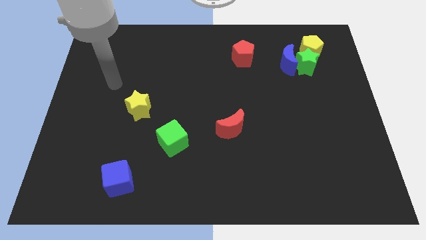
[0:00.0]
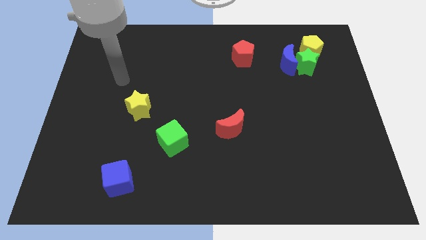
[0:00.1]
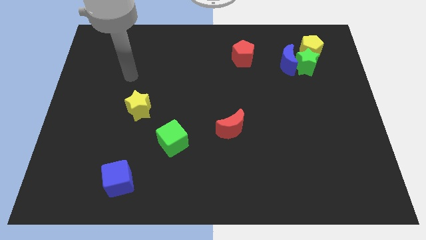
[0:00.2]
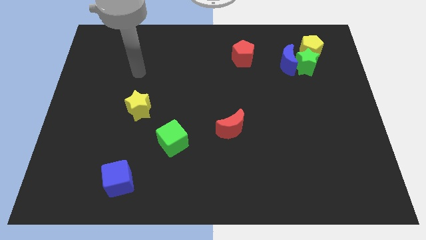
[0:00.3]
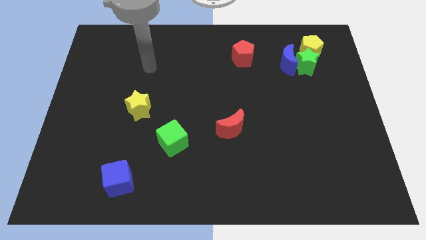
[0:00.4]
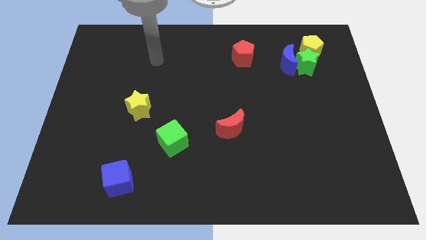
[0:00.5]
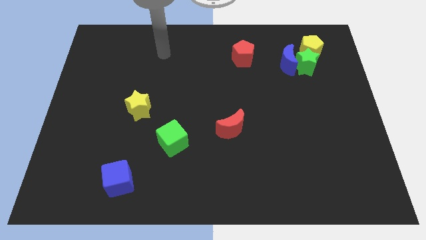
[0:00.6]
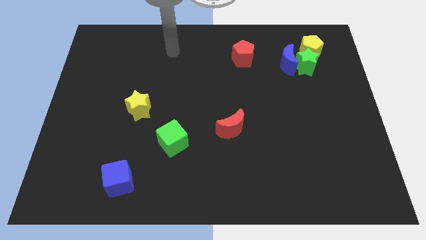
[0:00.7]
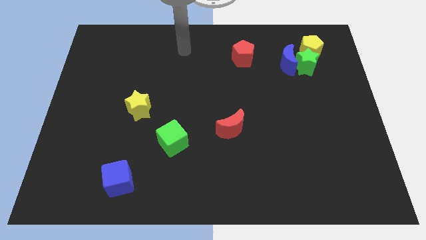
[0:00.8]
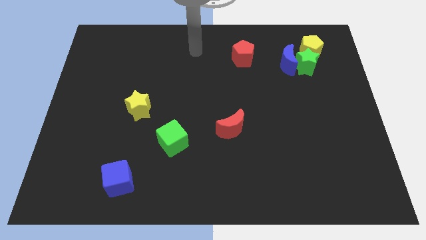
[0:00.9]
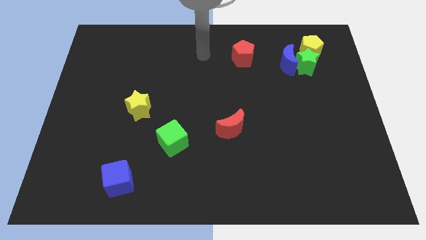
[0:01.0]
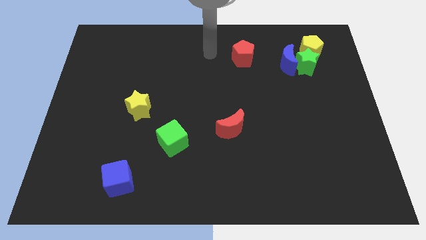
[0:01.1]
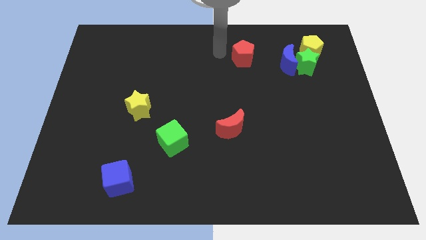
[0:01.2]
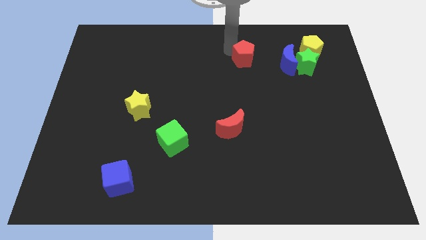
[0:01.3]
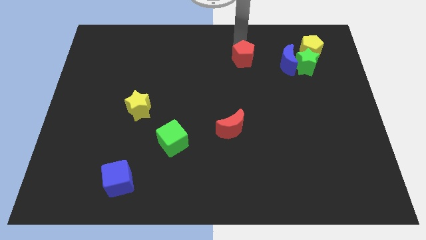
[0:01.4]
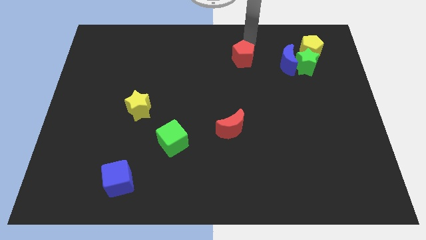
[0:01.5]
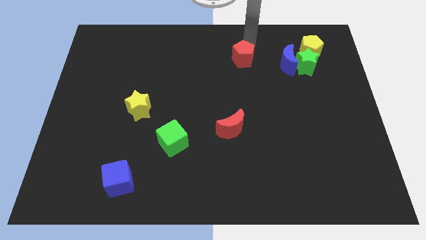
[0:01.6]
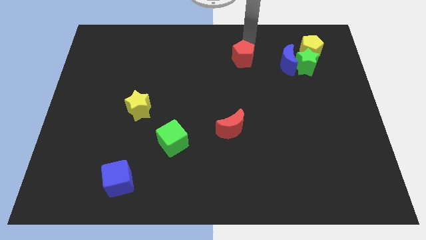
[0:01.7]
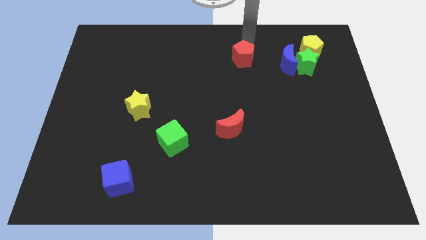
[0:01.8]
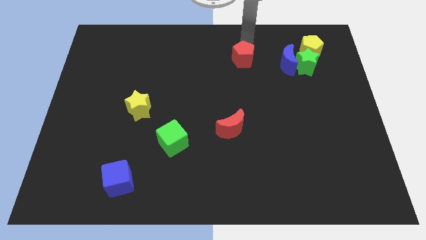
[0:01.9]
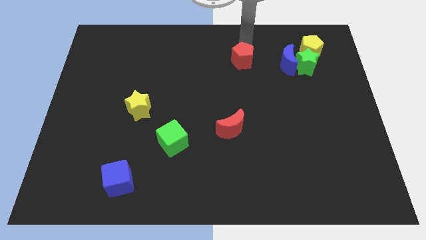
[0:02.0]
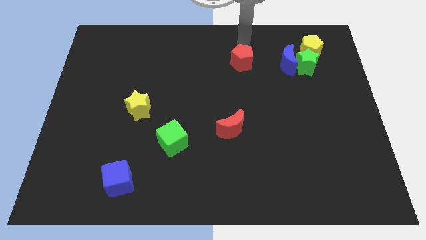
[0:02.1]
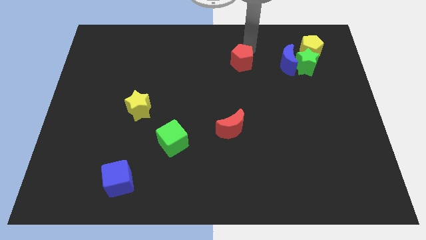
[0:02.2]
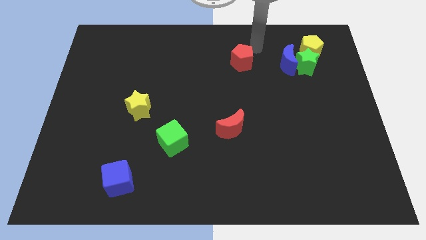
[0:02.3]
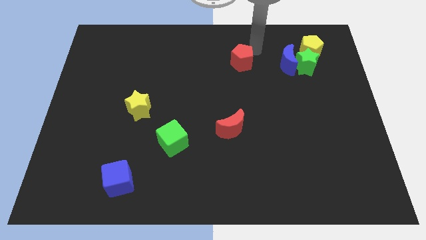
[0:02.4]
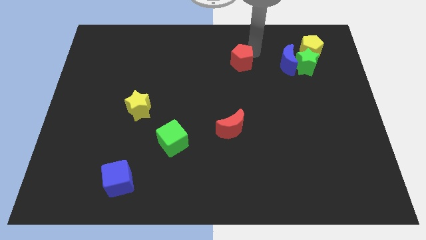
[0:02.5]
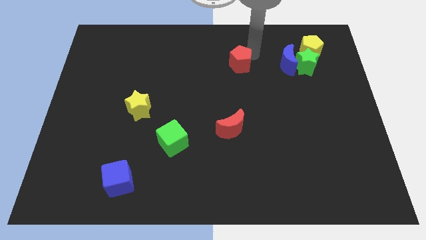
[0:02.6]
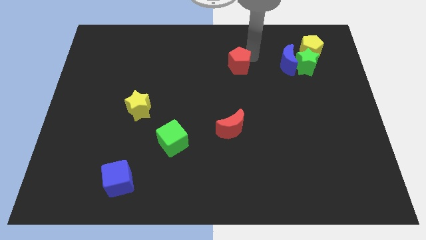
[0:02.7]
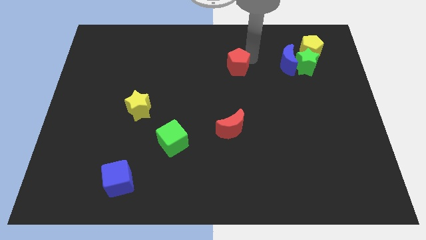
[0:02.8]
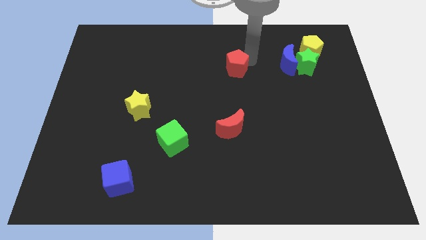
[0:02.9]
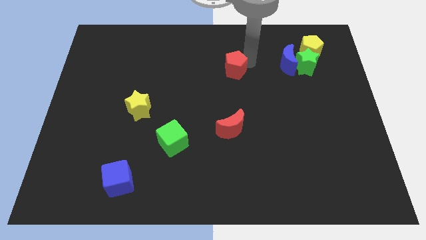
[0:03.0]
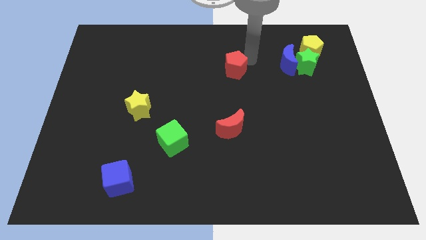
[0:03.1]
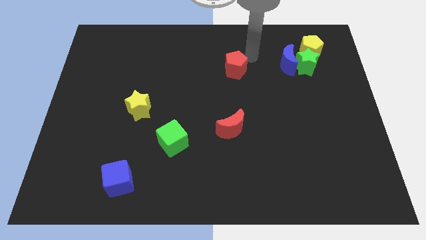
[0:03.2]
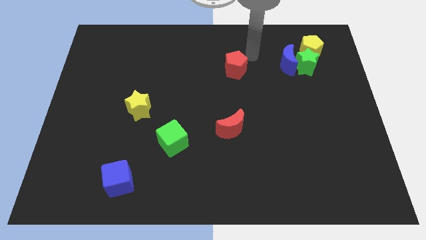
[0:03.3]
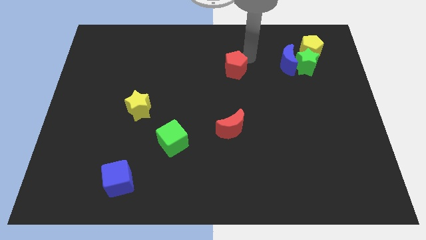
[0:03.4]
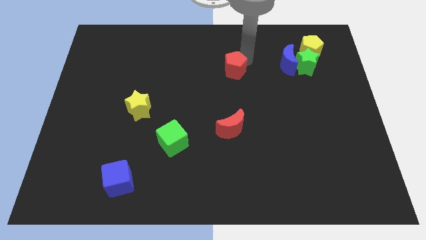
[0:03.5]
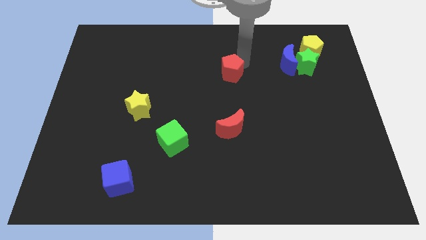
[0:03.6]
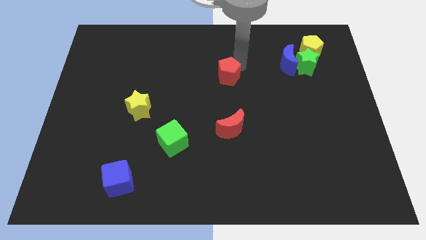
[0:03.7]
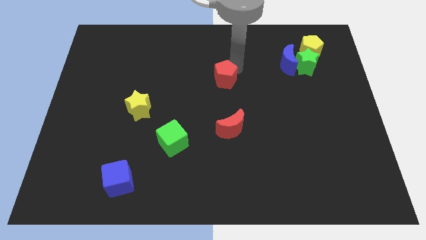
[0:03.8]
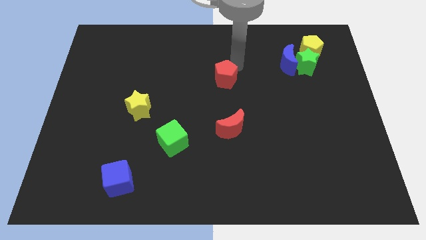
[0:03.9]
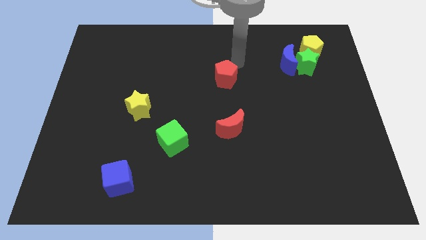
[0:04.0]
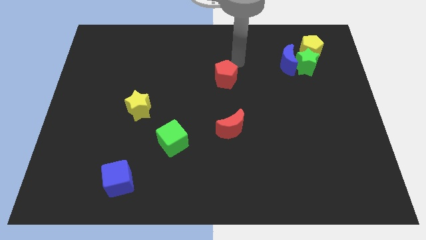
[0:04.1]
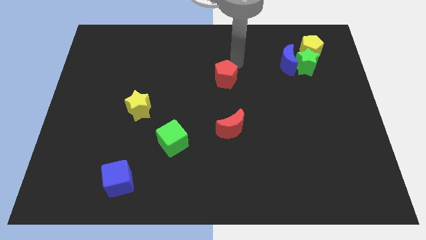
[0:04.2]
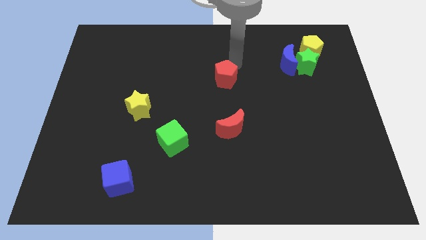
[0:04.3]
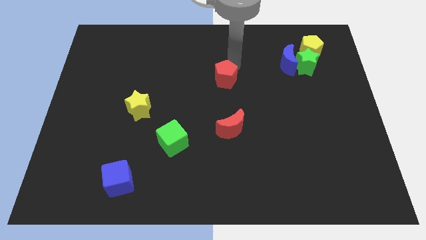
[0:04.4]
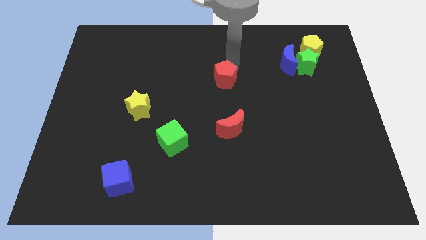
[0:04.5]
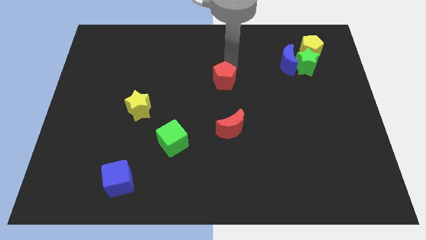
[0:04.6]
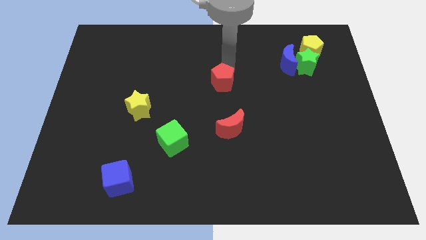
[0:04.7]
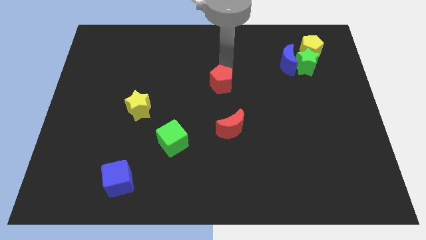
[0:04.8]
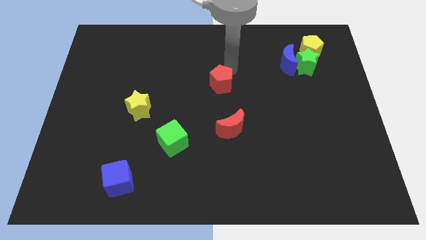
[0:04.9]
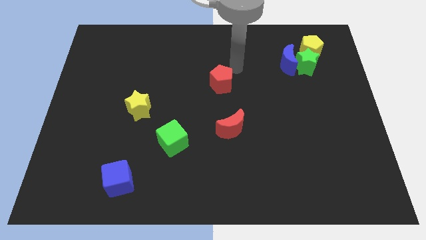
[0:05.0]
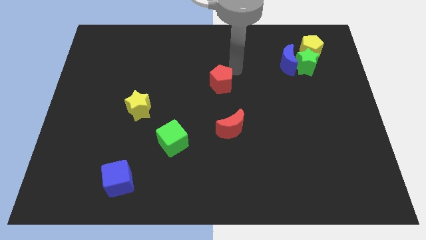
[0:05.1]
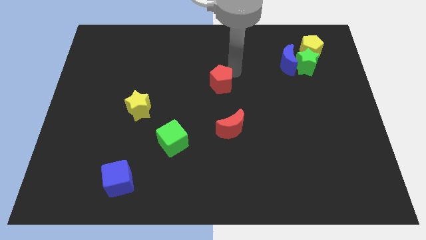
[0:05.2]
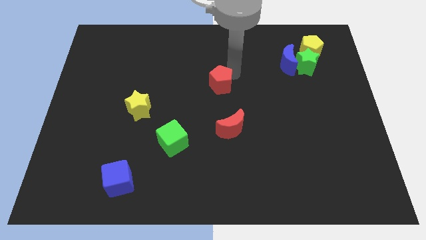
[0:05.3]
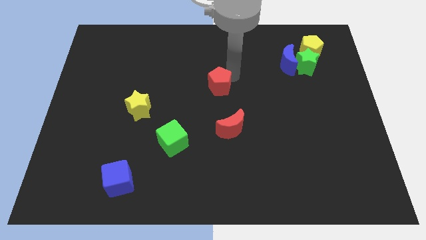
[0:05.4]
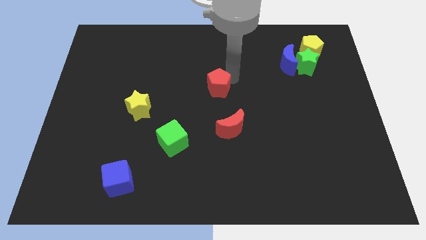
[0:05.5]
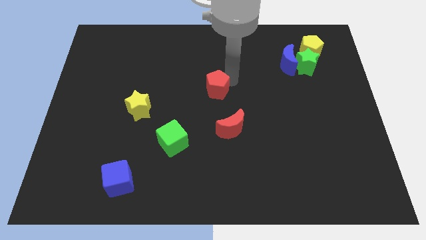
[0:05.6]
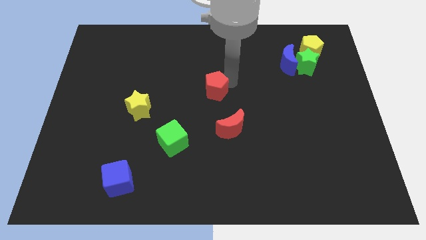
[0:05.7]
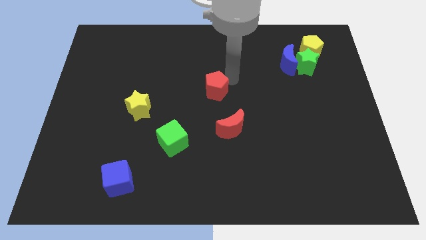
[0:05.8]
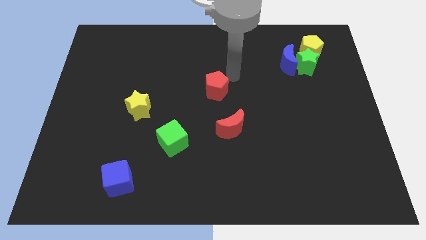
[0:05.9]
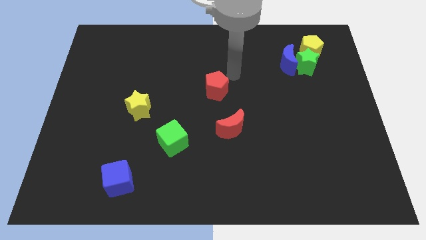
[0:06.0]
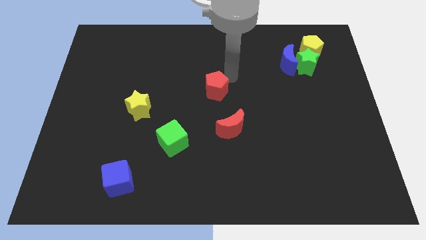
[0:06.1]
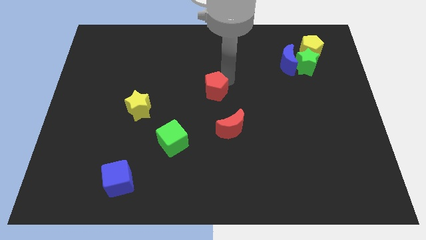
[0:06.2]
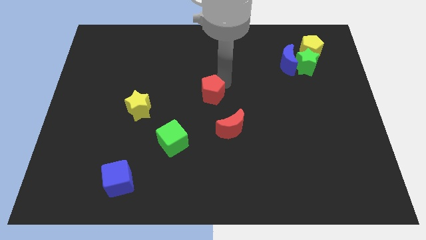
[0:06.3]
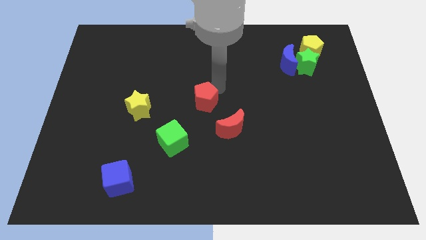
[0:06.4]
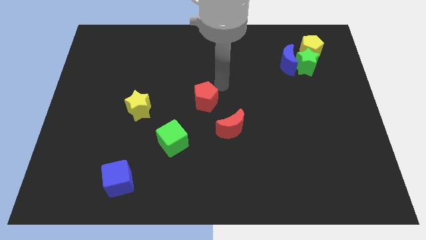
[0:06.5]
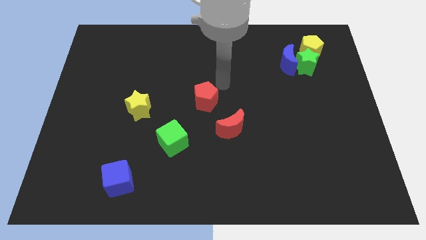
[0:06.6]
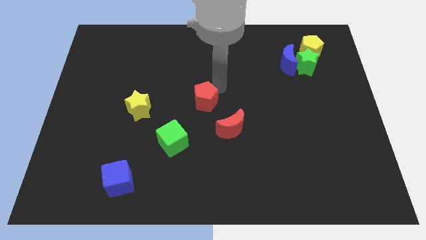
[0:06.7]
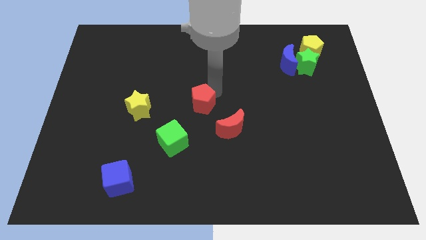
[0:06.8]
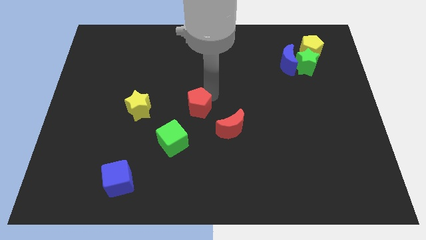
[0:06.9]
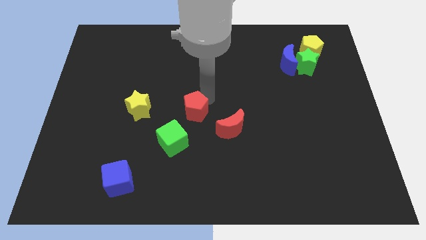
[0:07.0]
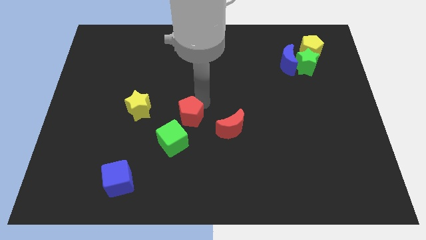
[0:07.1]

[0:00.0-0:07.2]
slide the red pentagon to the left side of the red moon
